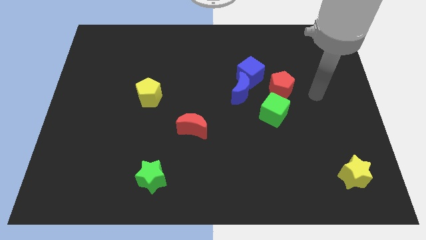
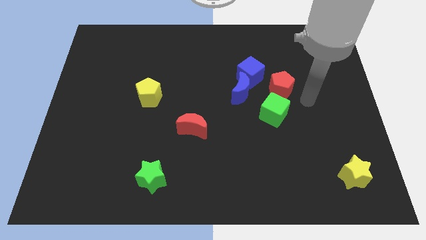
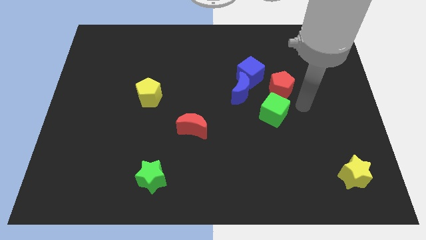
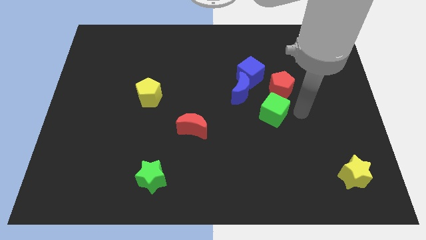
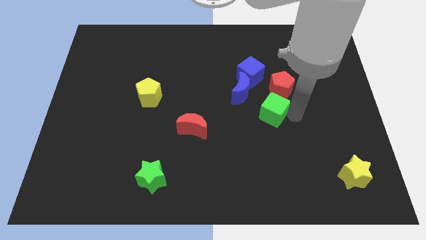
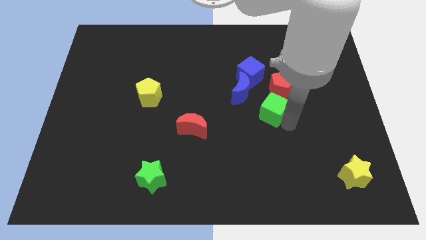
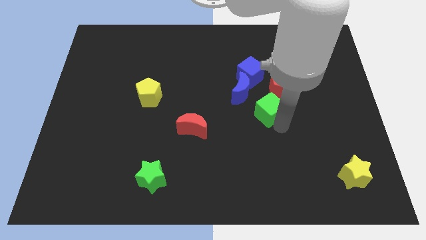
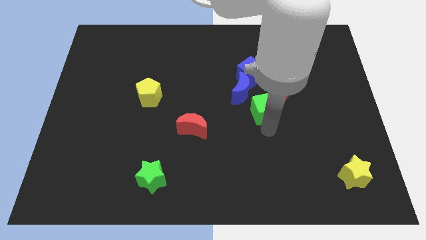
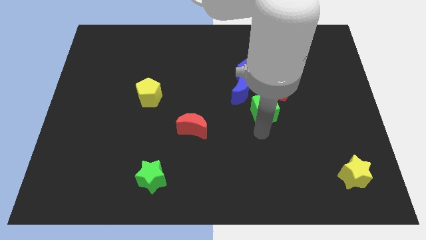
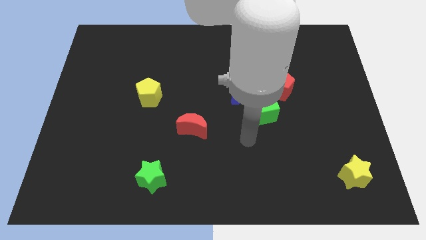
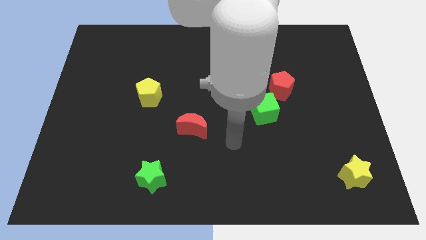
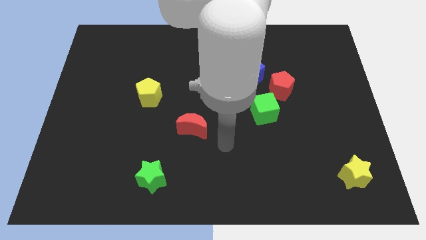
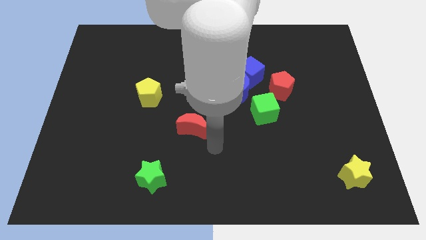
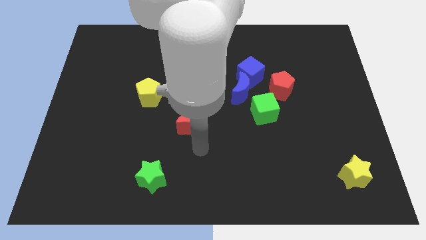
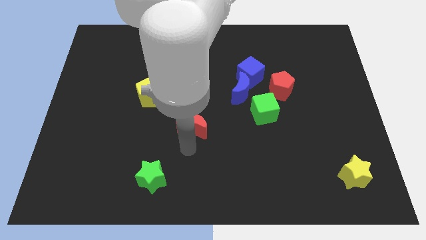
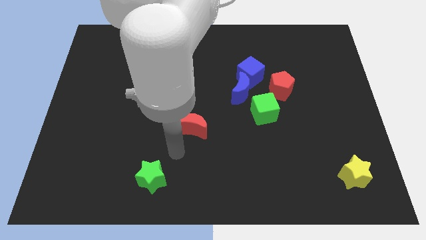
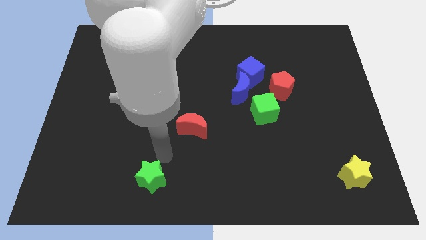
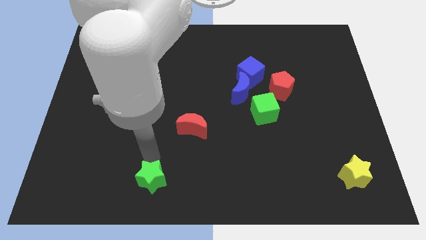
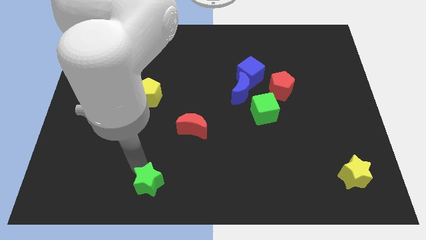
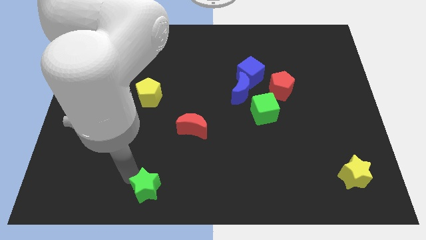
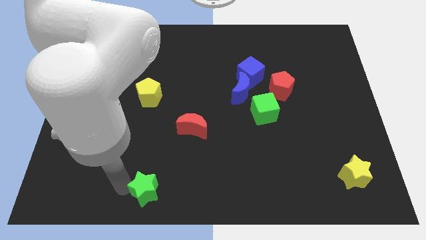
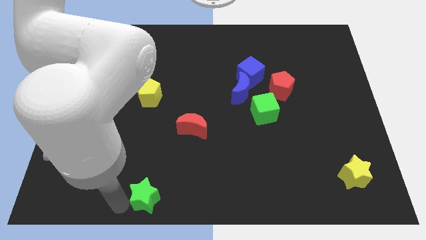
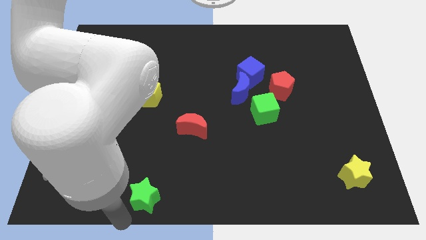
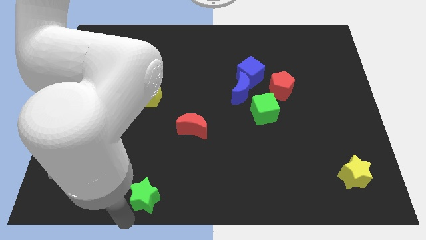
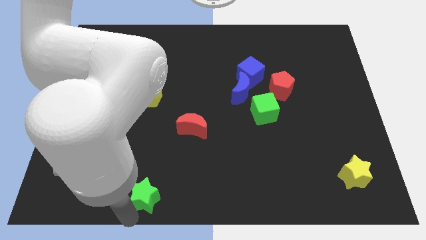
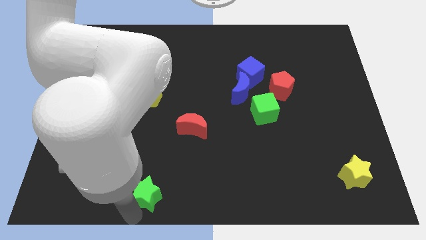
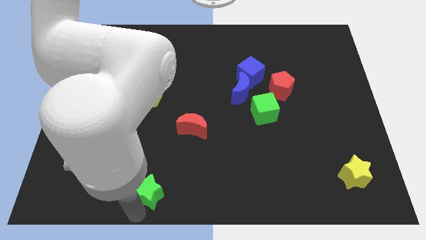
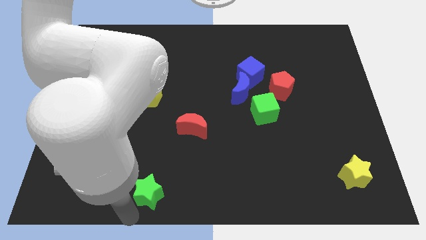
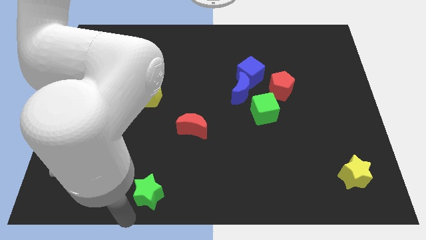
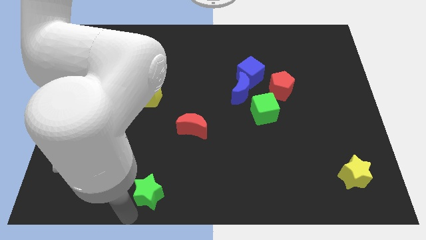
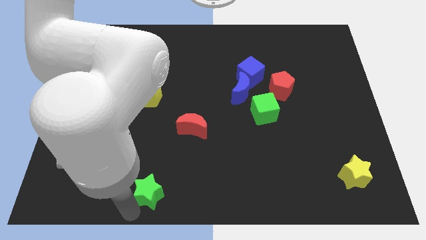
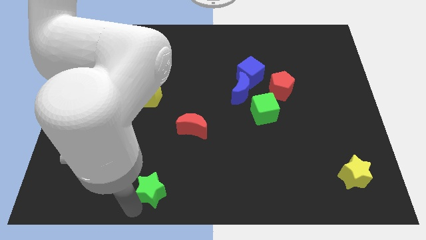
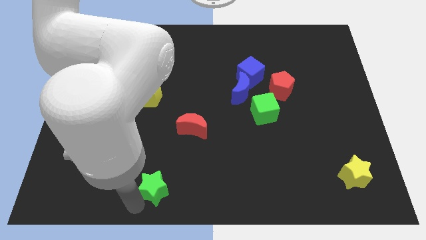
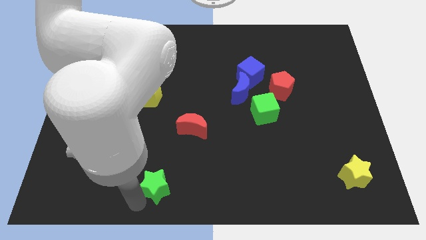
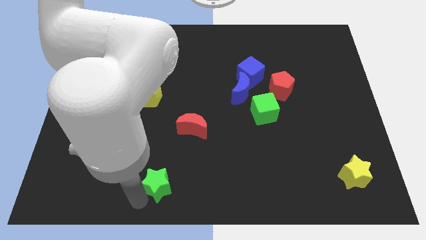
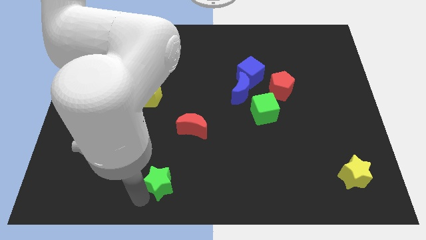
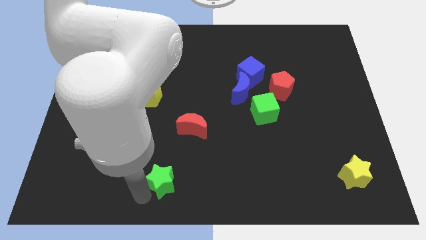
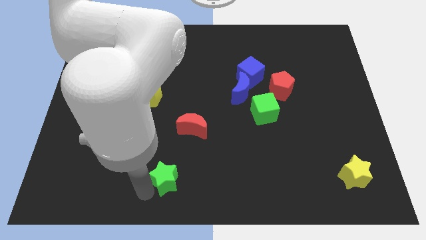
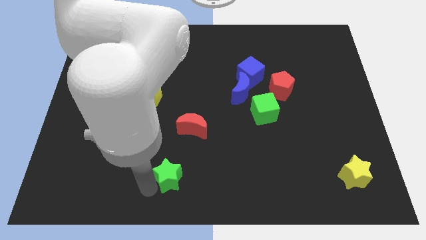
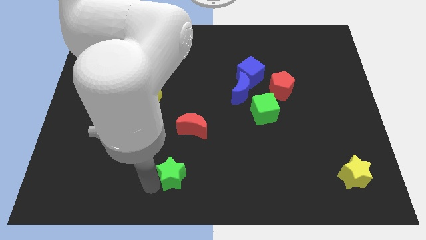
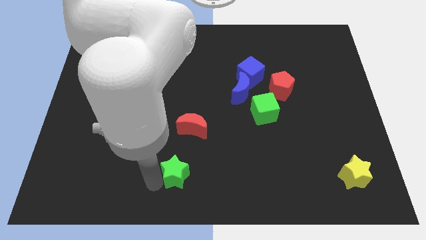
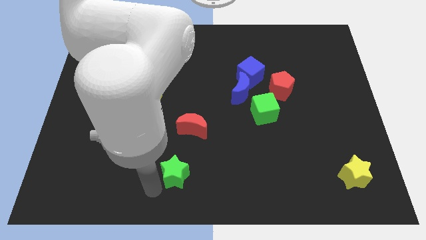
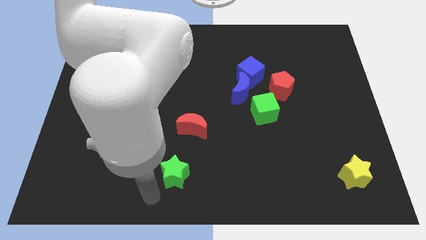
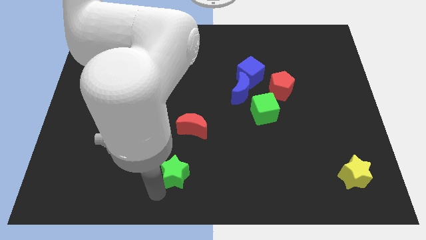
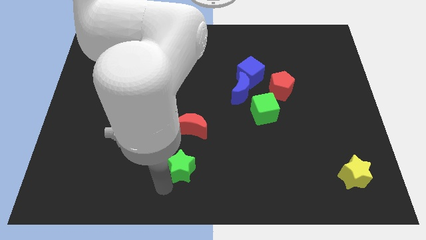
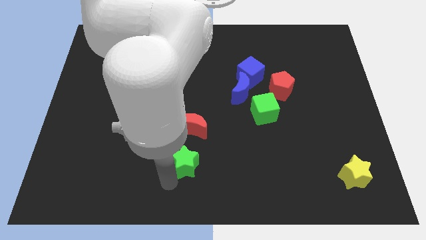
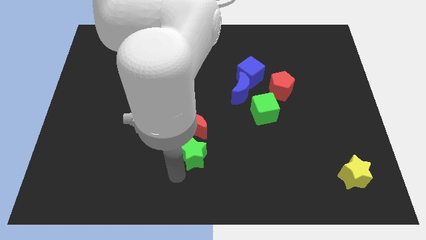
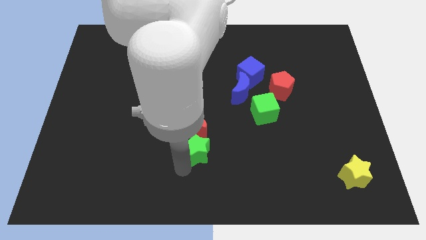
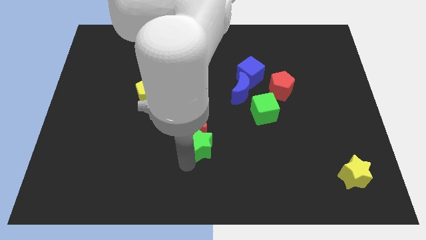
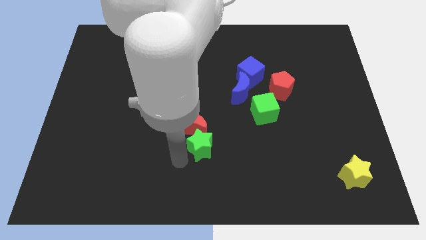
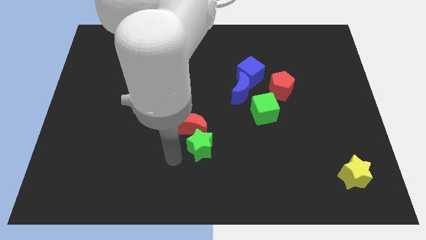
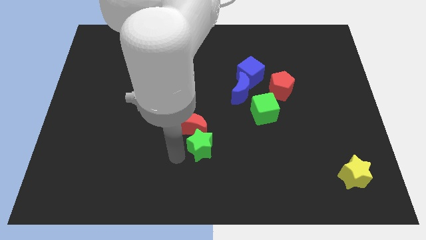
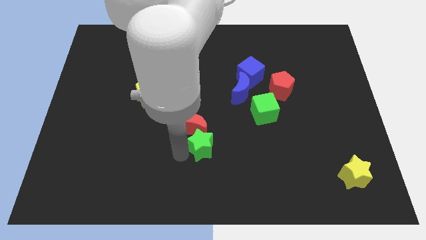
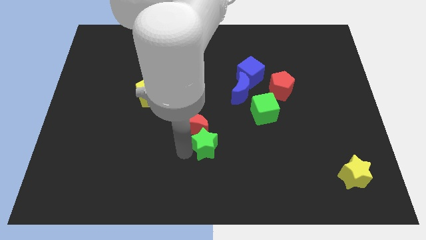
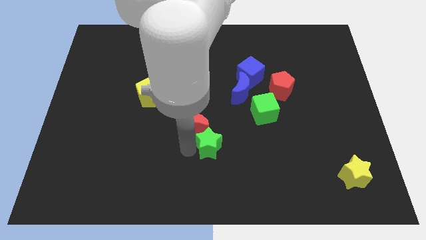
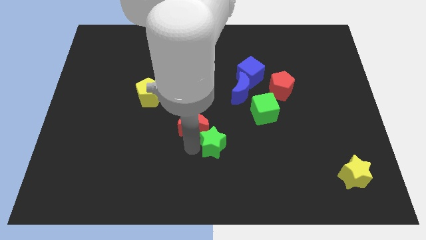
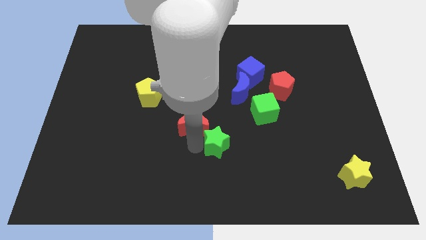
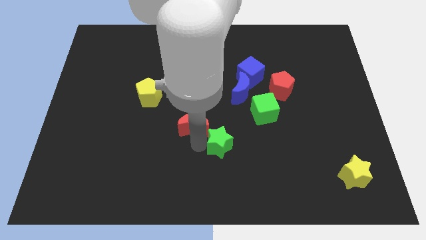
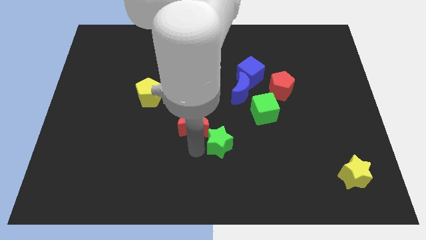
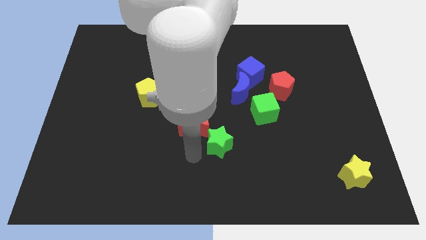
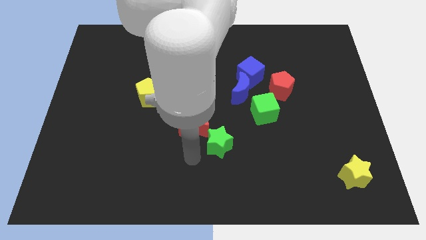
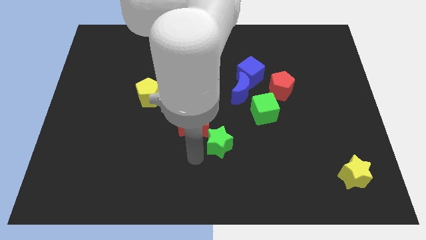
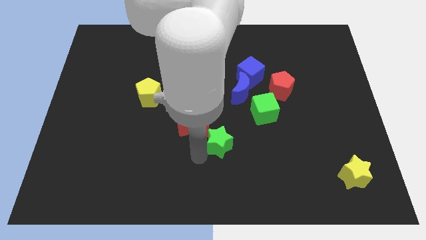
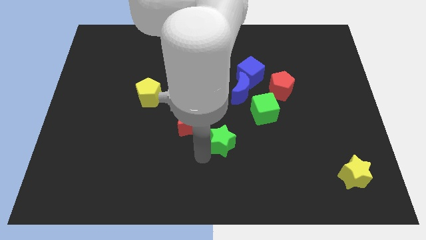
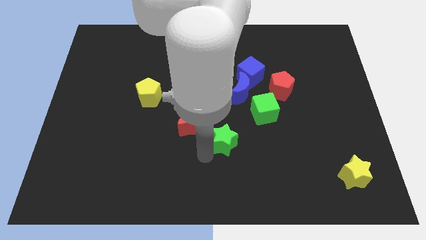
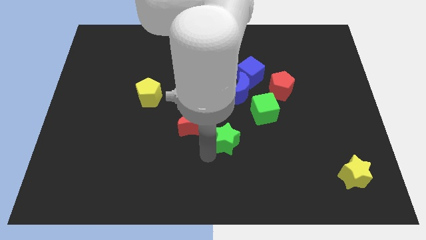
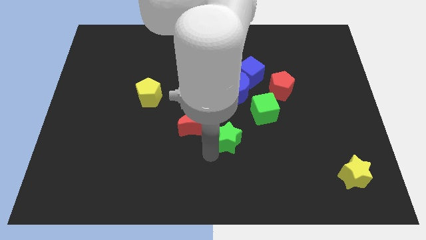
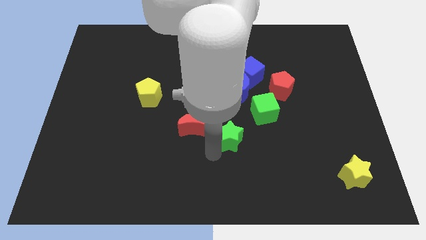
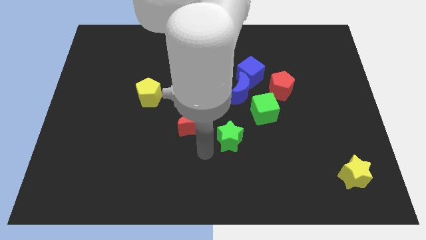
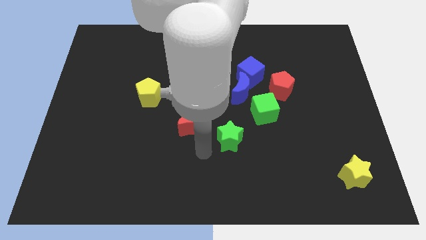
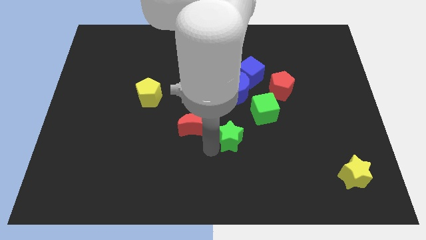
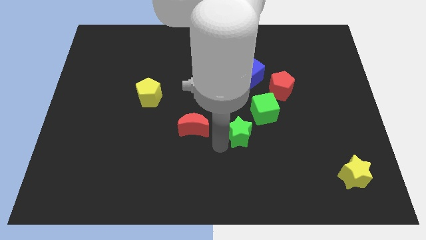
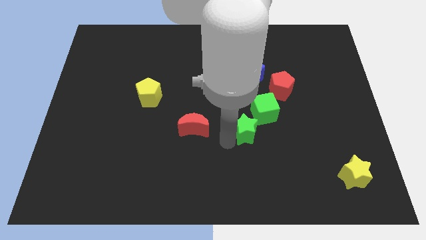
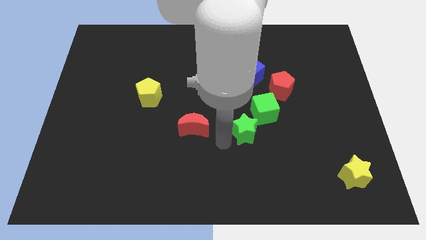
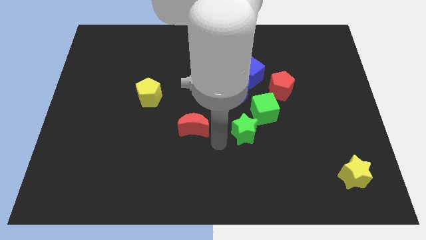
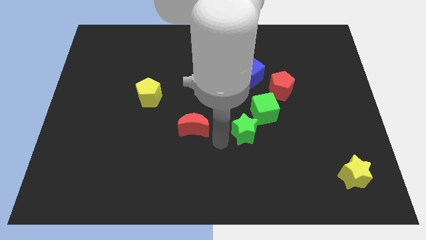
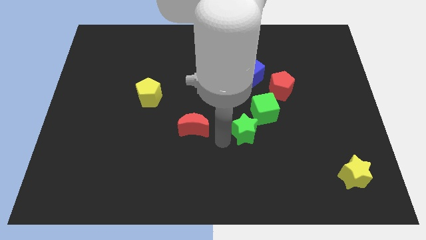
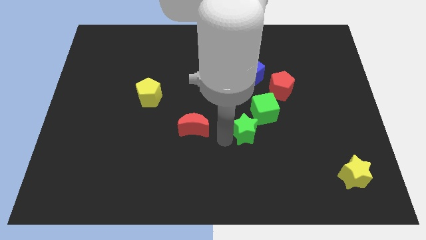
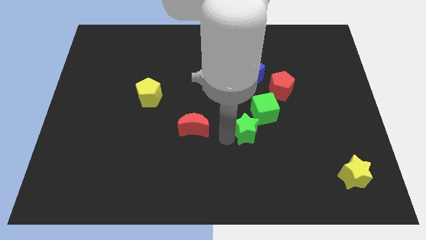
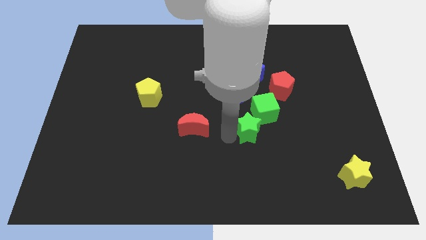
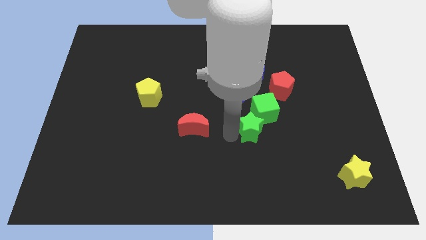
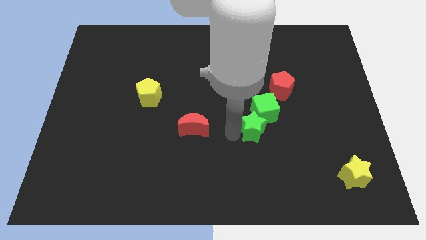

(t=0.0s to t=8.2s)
move the green star next to the green cube

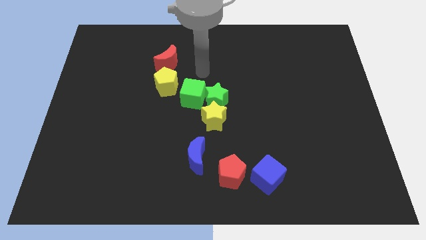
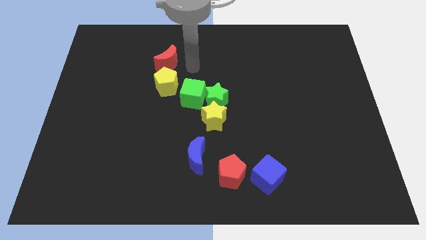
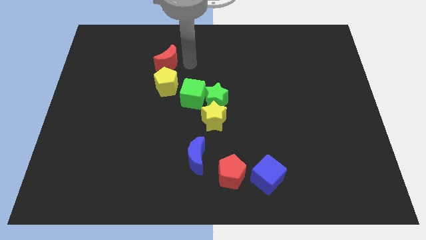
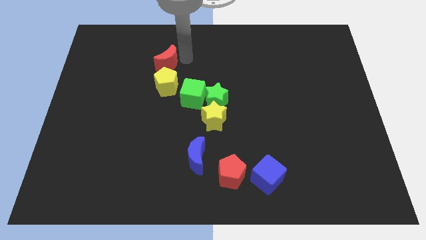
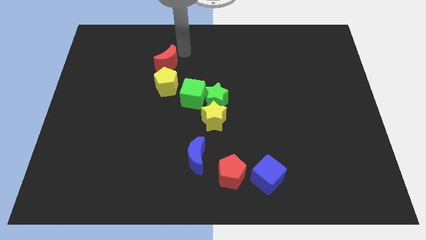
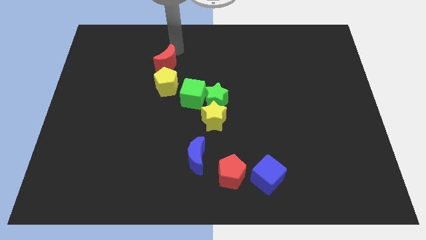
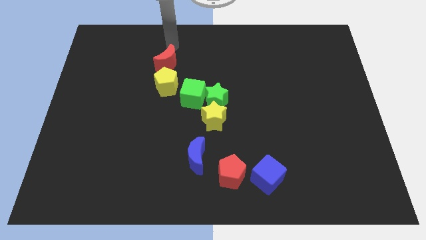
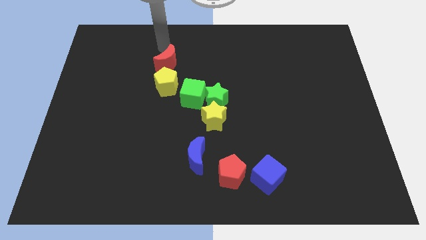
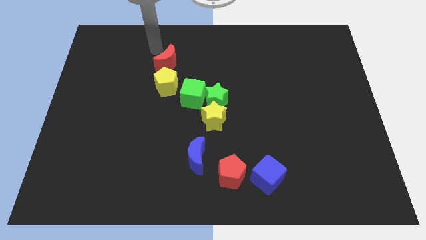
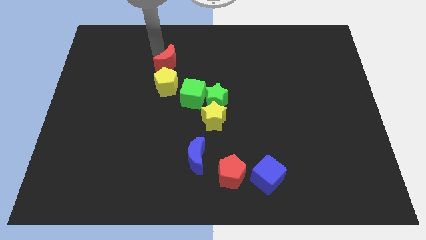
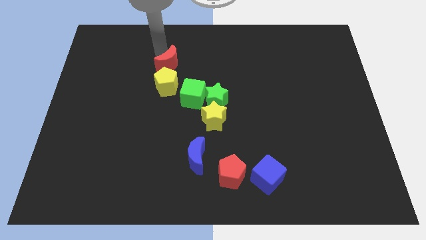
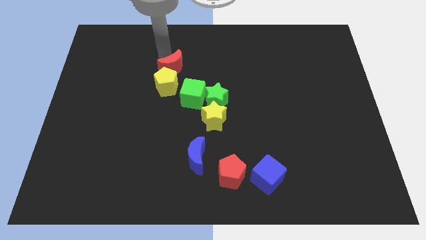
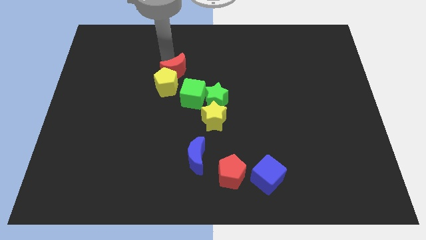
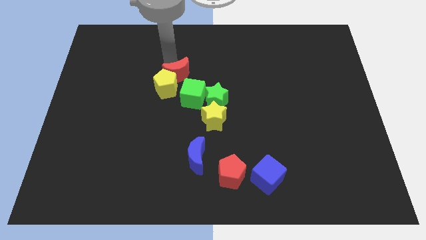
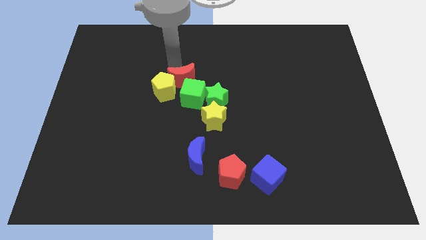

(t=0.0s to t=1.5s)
slide the red moon next to the green cube
